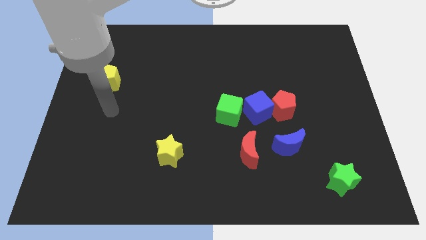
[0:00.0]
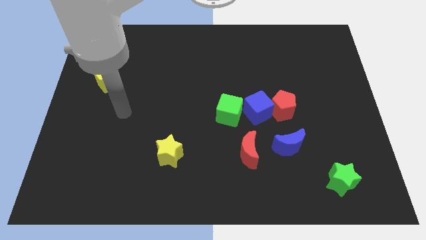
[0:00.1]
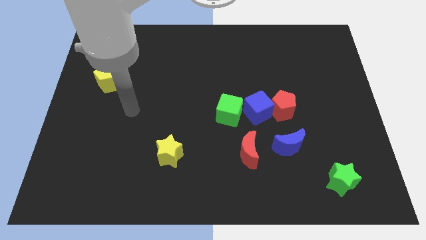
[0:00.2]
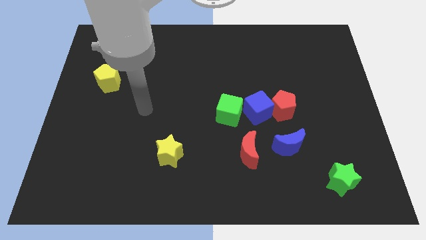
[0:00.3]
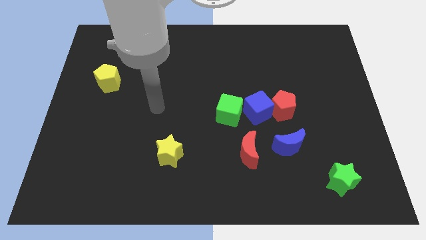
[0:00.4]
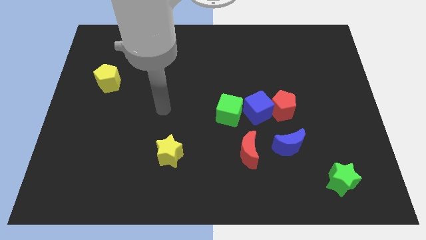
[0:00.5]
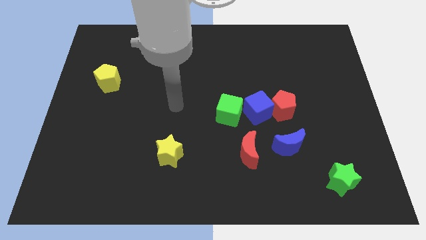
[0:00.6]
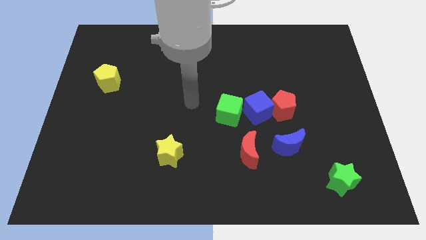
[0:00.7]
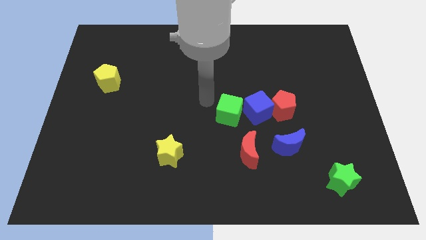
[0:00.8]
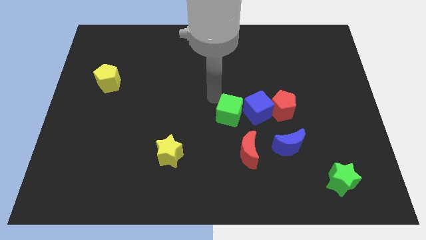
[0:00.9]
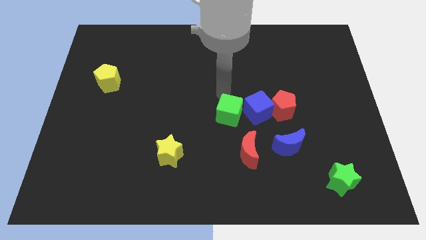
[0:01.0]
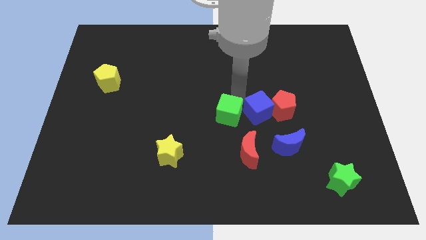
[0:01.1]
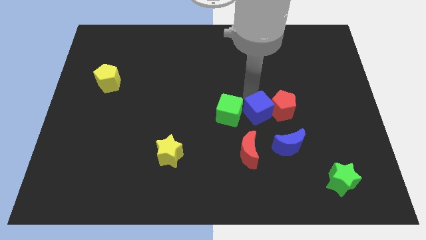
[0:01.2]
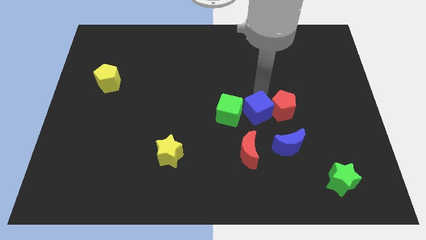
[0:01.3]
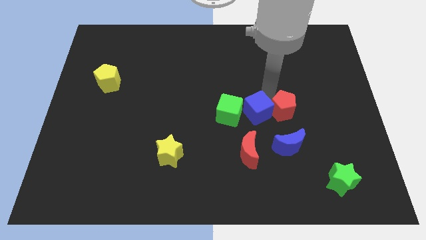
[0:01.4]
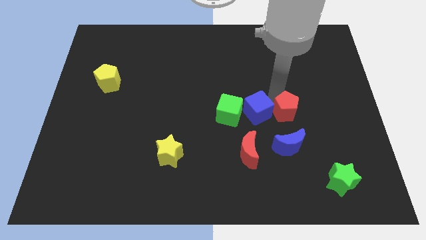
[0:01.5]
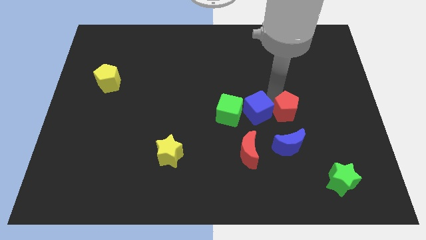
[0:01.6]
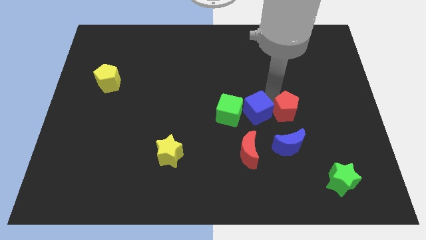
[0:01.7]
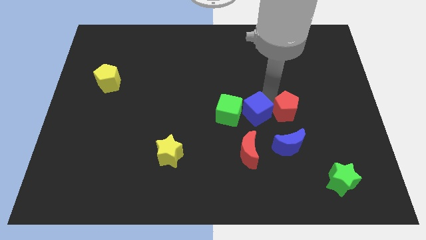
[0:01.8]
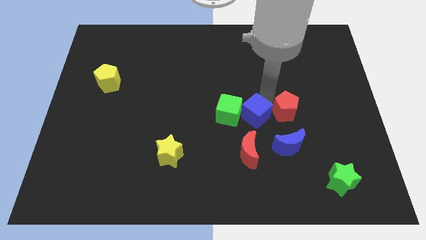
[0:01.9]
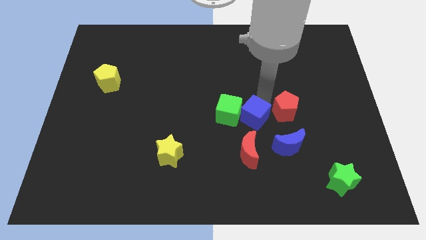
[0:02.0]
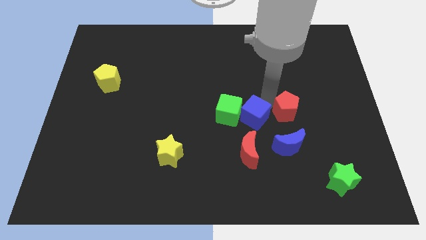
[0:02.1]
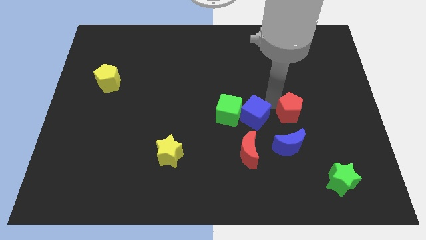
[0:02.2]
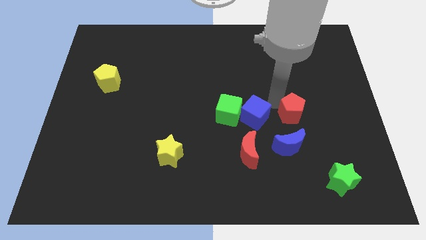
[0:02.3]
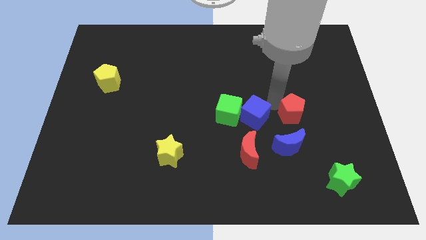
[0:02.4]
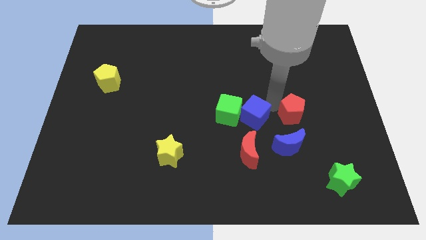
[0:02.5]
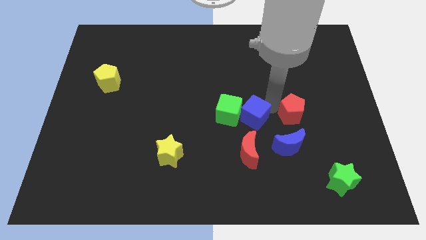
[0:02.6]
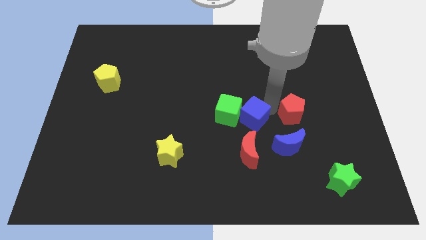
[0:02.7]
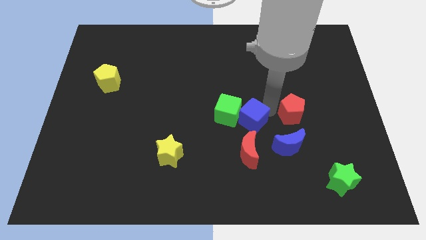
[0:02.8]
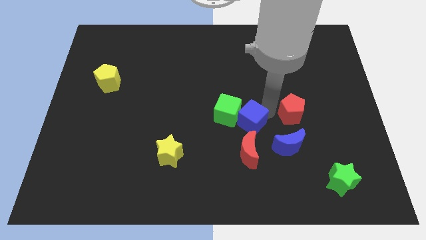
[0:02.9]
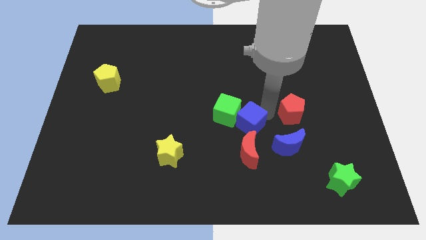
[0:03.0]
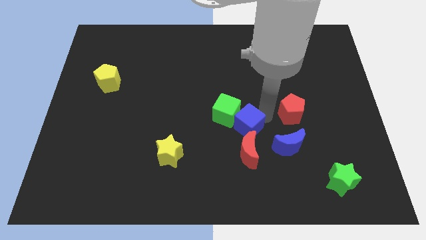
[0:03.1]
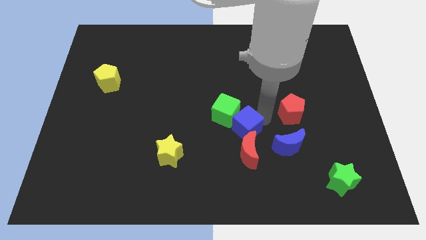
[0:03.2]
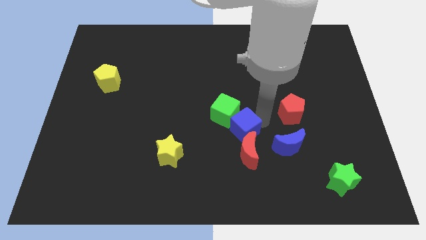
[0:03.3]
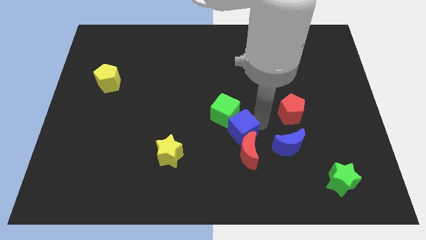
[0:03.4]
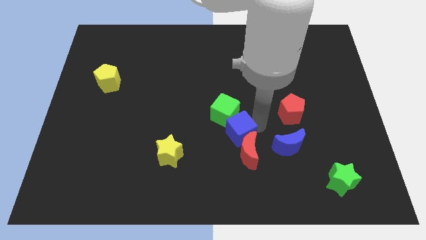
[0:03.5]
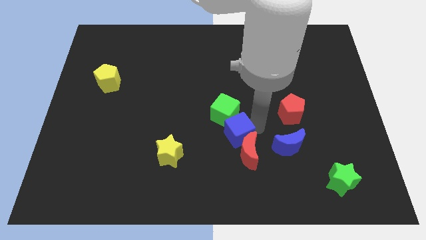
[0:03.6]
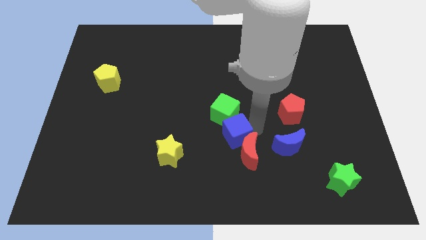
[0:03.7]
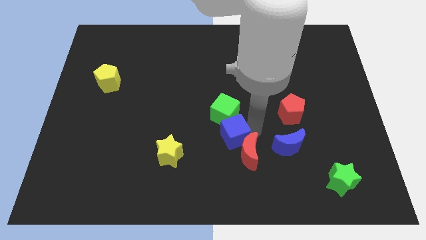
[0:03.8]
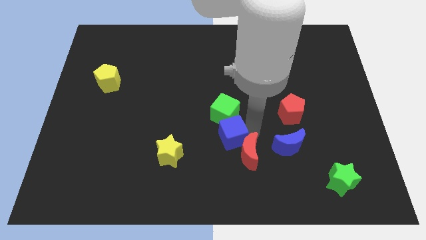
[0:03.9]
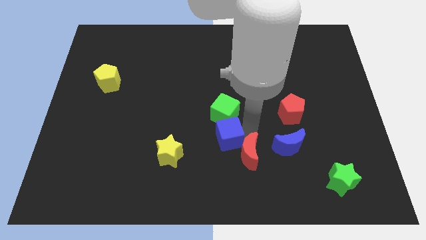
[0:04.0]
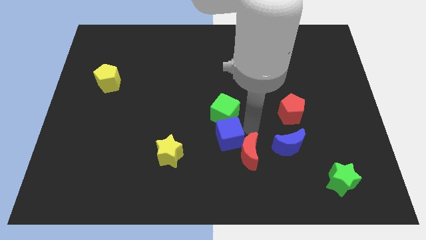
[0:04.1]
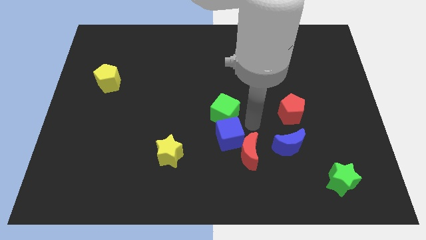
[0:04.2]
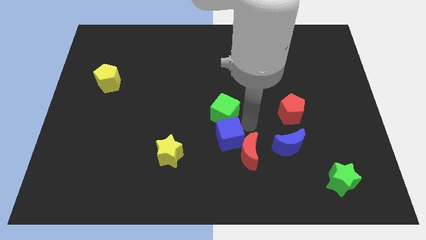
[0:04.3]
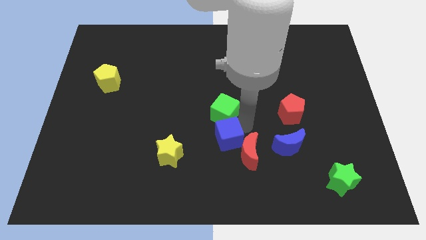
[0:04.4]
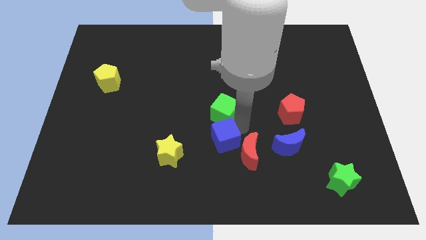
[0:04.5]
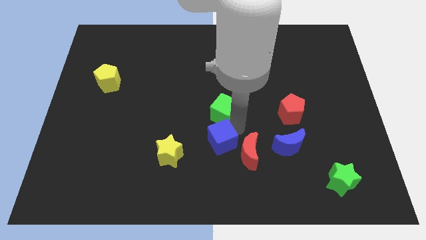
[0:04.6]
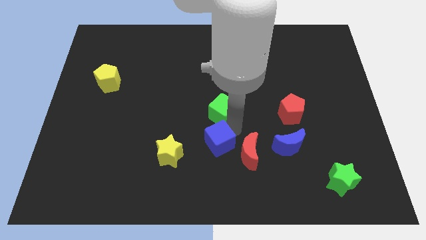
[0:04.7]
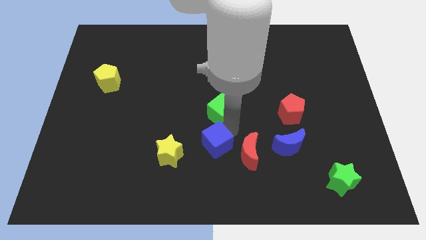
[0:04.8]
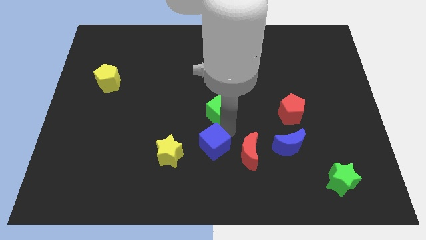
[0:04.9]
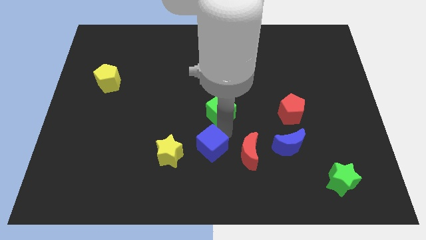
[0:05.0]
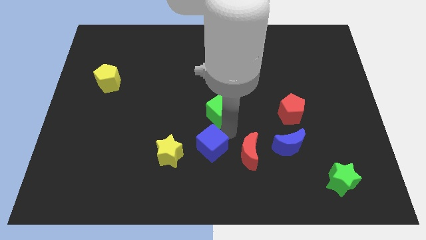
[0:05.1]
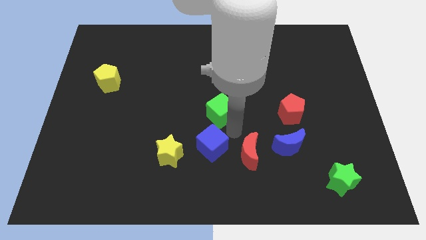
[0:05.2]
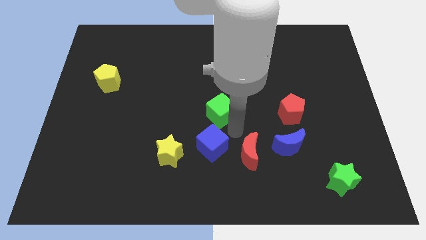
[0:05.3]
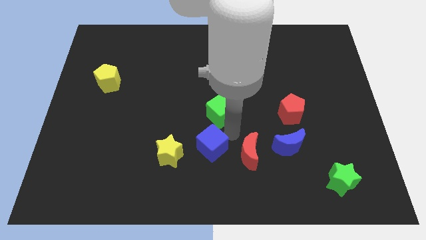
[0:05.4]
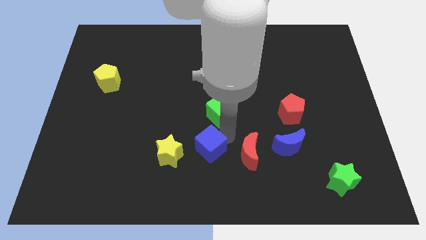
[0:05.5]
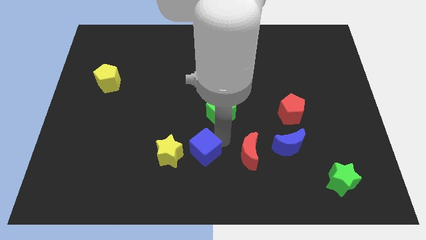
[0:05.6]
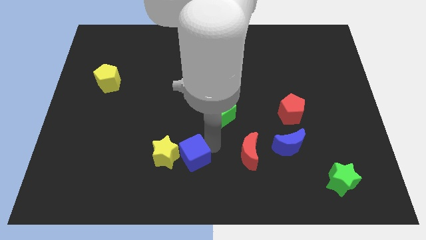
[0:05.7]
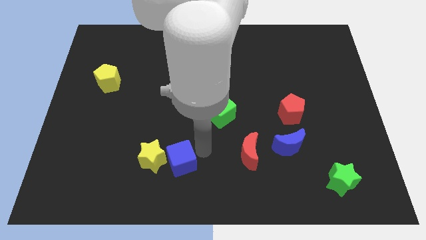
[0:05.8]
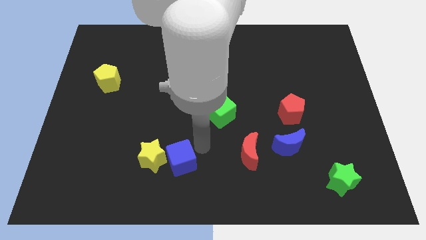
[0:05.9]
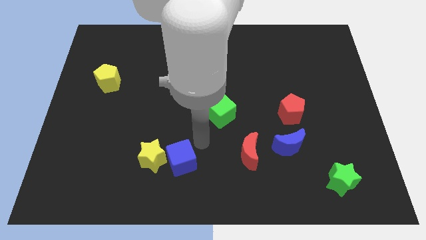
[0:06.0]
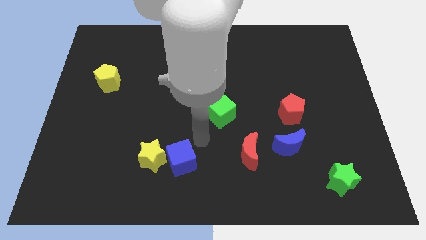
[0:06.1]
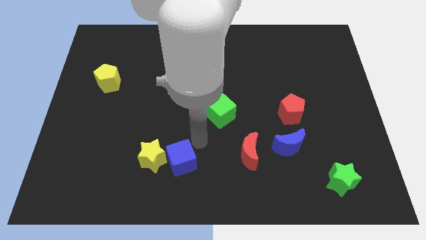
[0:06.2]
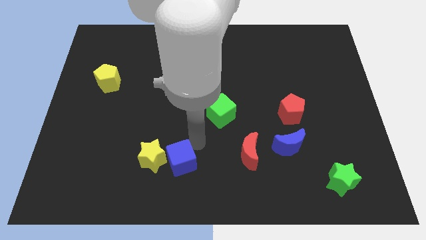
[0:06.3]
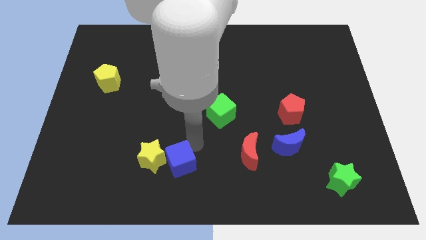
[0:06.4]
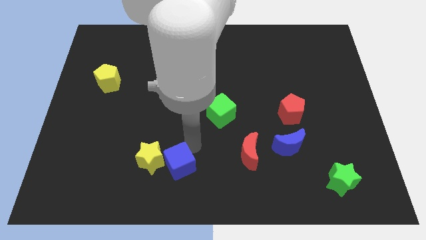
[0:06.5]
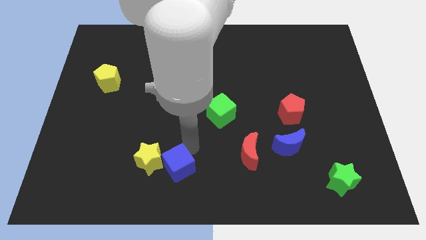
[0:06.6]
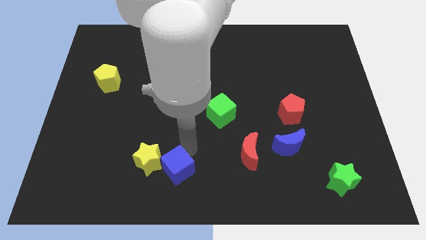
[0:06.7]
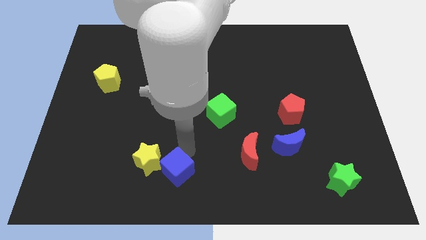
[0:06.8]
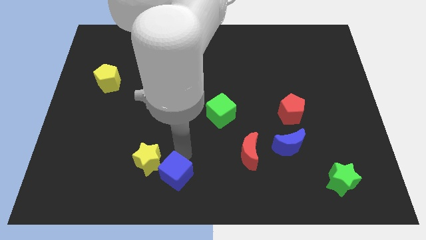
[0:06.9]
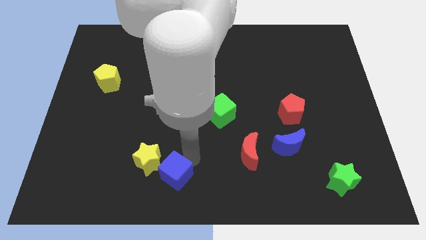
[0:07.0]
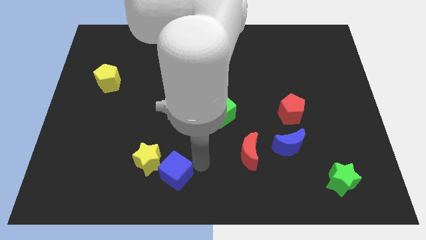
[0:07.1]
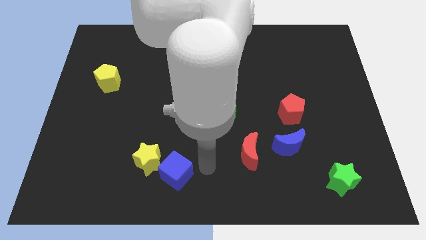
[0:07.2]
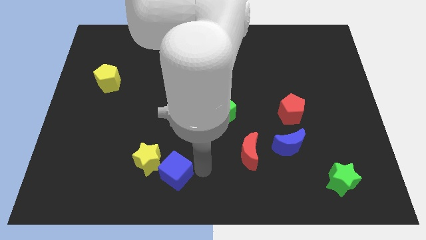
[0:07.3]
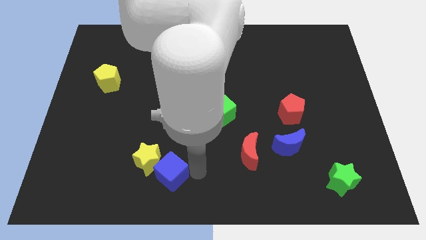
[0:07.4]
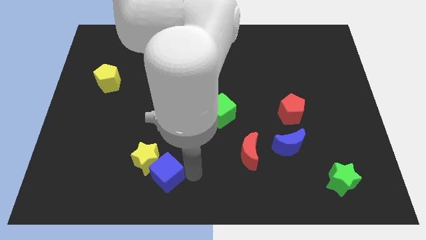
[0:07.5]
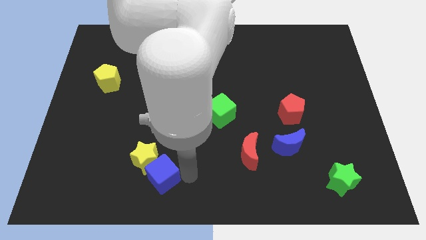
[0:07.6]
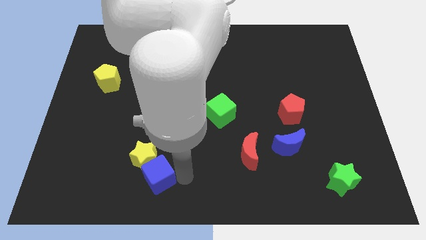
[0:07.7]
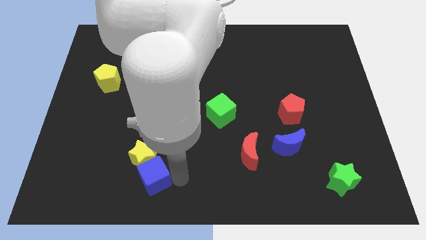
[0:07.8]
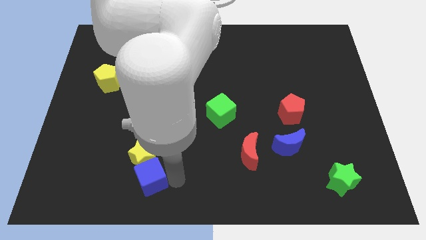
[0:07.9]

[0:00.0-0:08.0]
push the blue cube to the bottom left side of the yellow star
